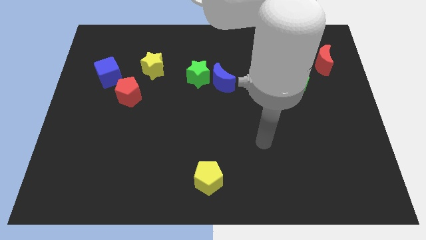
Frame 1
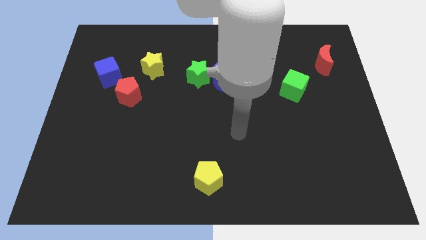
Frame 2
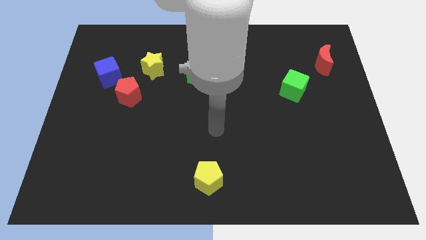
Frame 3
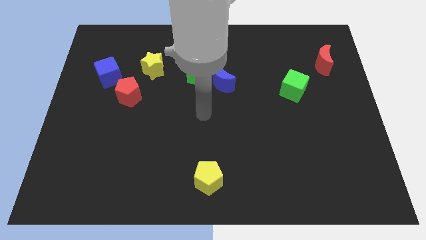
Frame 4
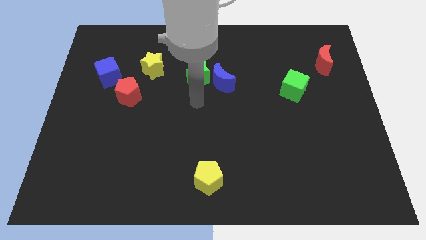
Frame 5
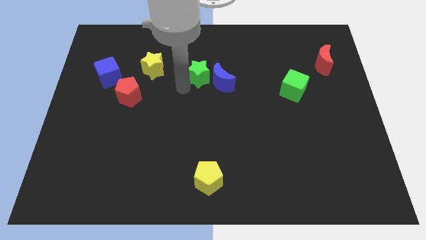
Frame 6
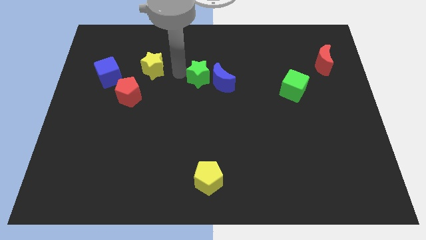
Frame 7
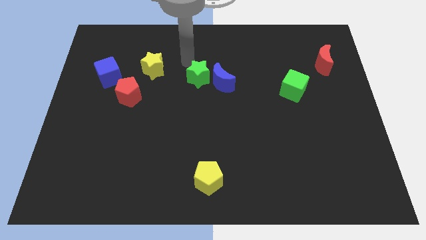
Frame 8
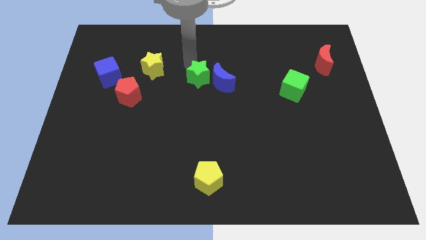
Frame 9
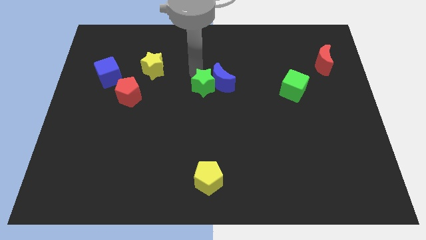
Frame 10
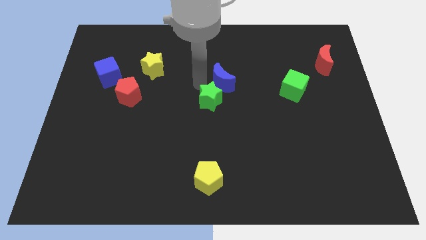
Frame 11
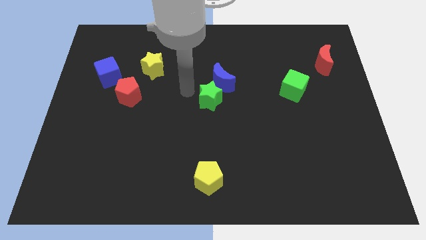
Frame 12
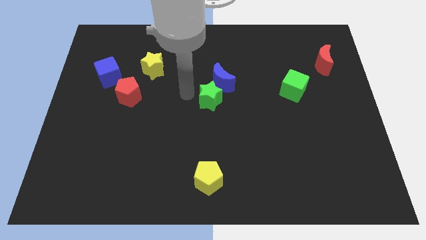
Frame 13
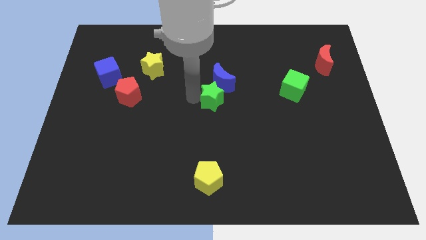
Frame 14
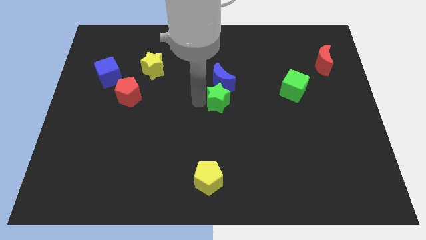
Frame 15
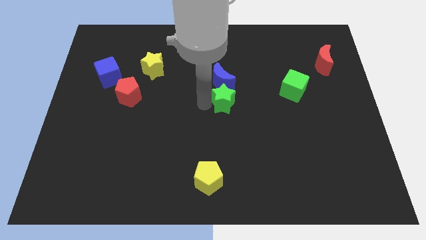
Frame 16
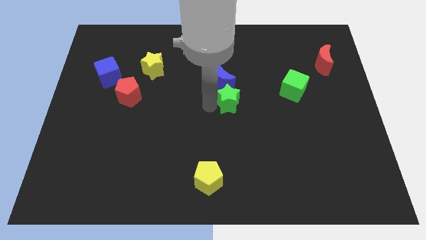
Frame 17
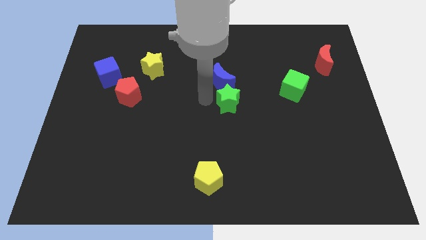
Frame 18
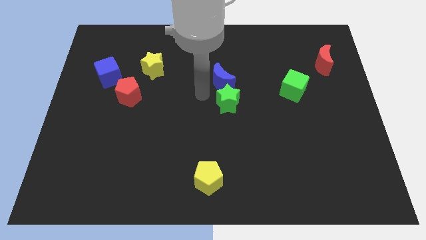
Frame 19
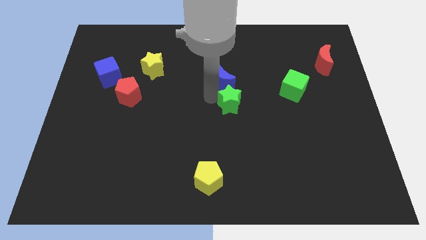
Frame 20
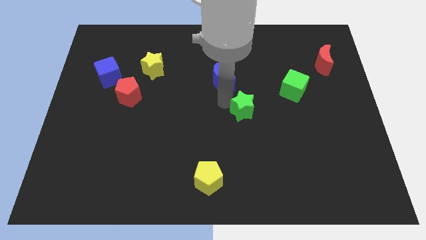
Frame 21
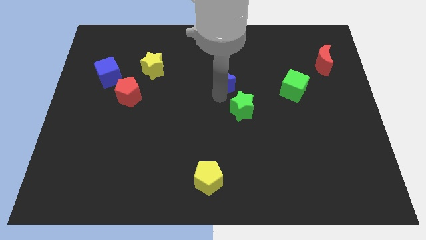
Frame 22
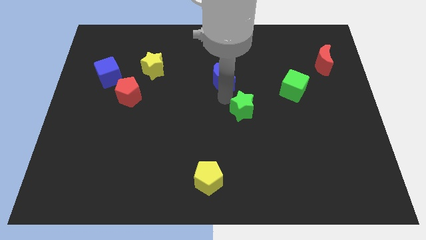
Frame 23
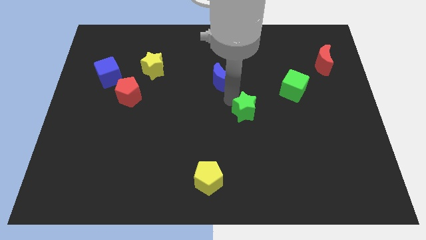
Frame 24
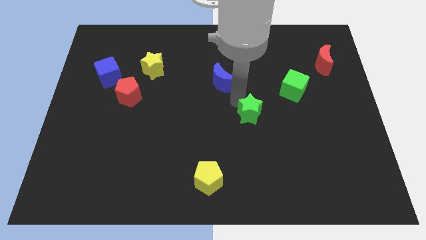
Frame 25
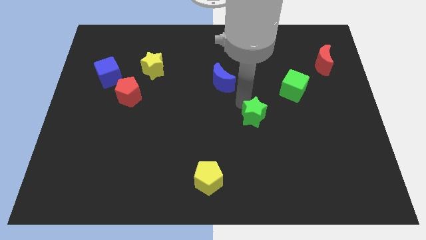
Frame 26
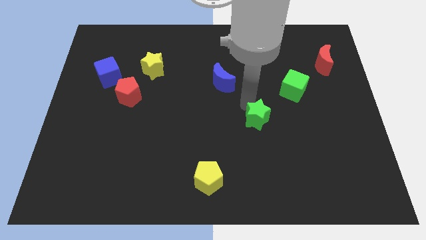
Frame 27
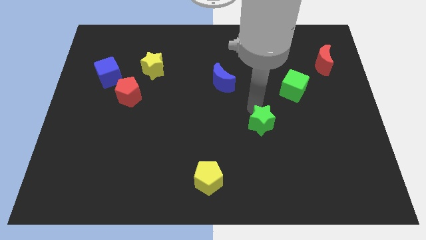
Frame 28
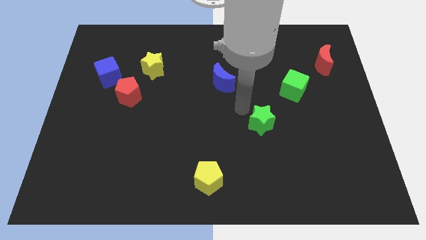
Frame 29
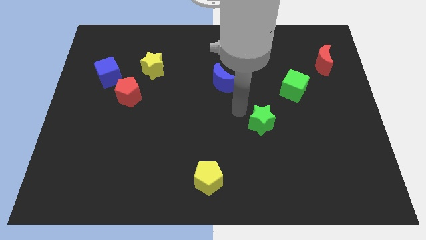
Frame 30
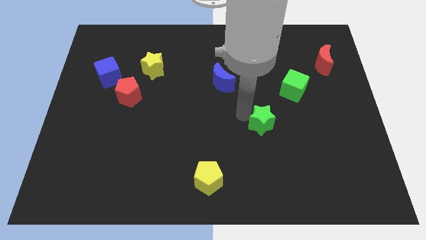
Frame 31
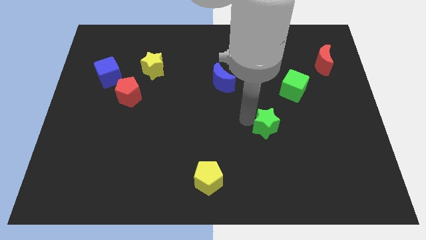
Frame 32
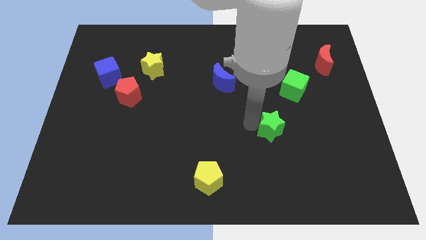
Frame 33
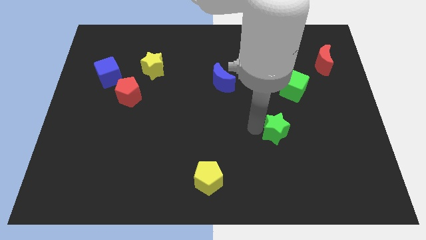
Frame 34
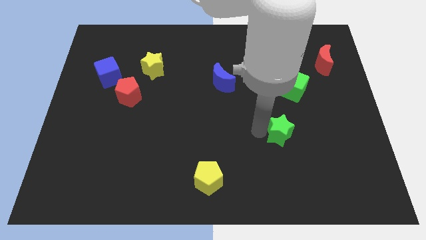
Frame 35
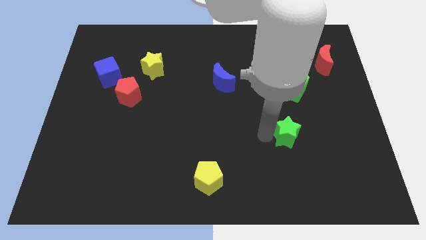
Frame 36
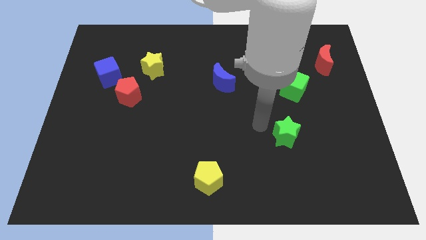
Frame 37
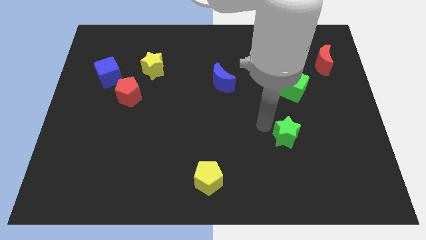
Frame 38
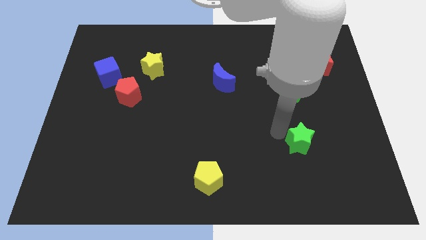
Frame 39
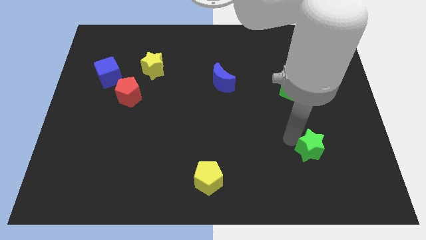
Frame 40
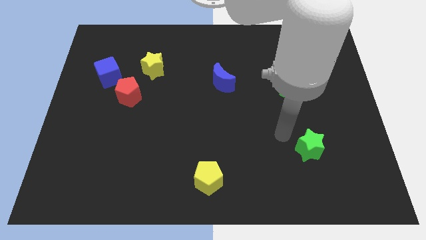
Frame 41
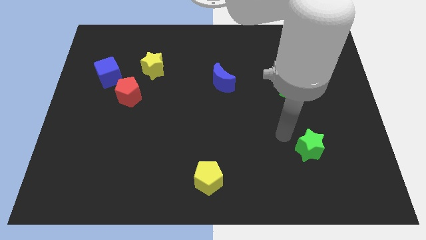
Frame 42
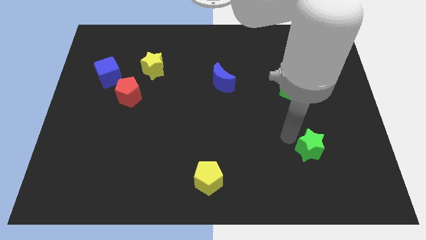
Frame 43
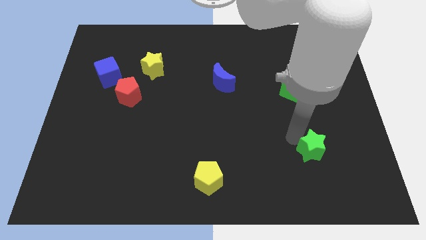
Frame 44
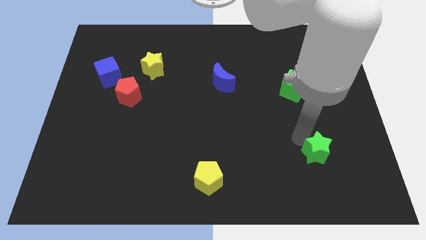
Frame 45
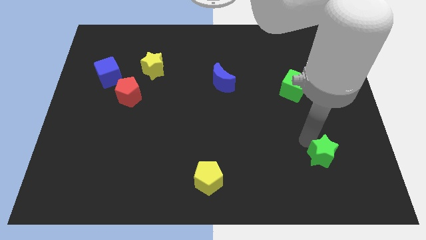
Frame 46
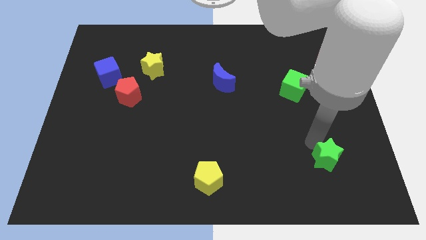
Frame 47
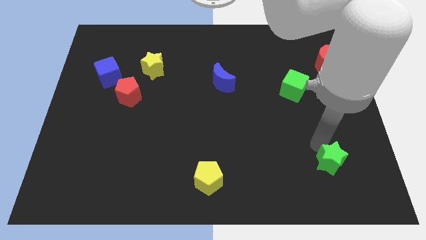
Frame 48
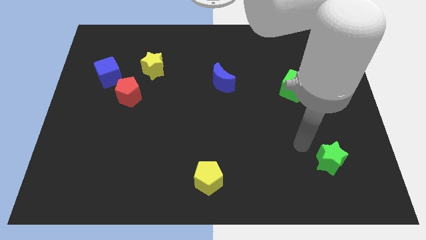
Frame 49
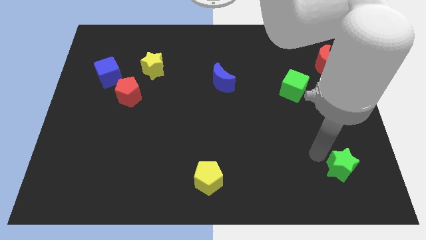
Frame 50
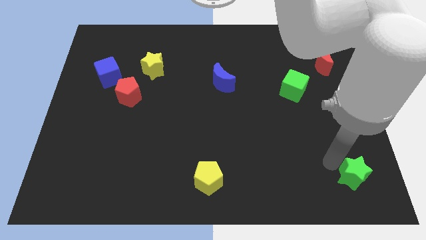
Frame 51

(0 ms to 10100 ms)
slide the green star to the lower right corner

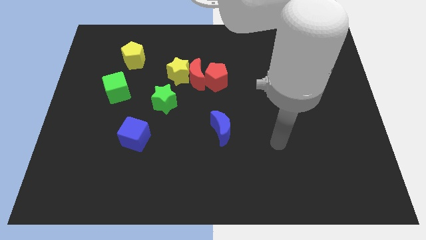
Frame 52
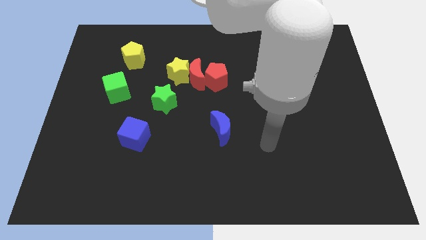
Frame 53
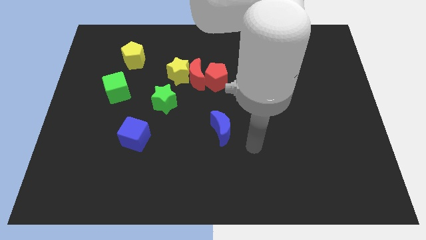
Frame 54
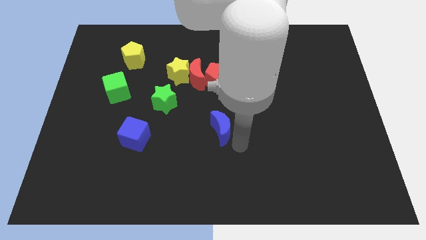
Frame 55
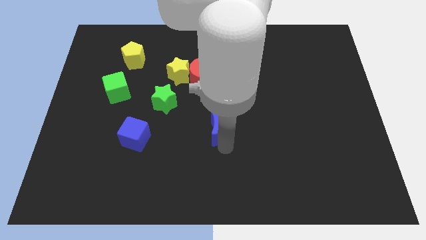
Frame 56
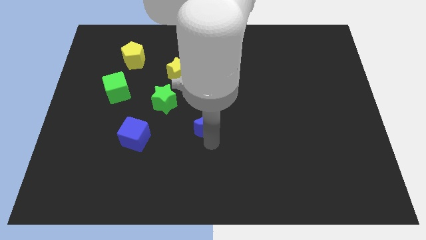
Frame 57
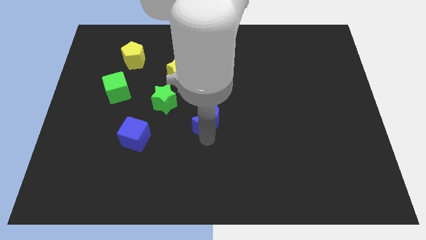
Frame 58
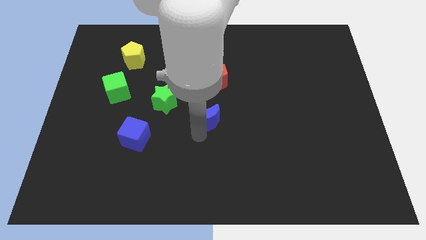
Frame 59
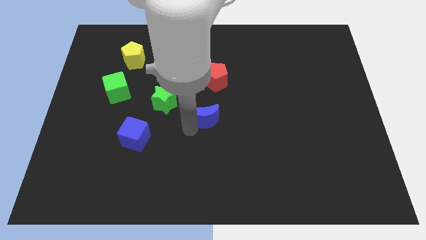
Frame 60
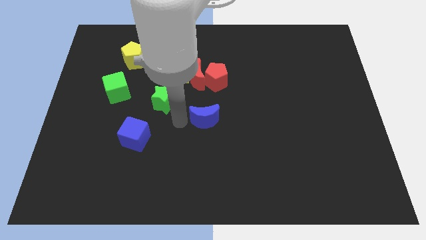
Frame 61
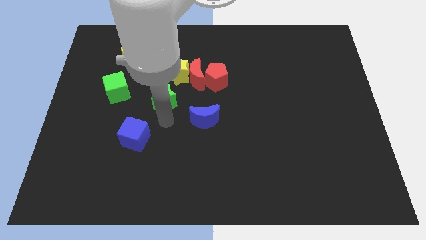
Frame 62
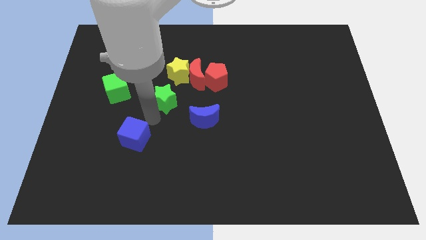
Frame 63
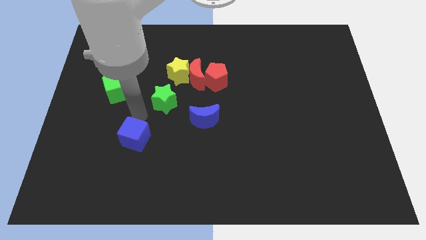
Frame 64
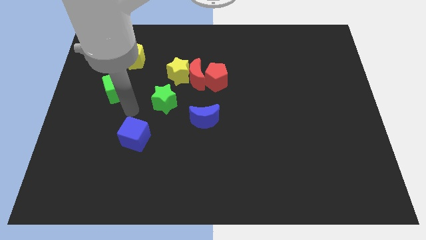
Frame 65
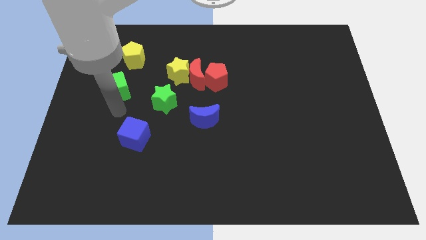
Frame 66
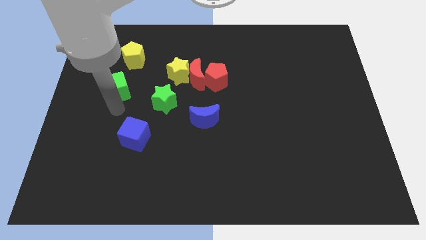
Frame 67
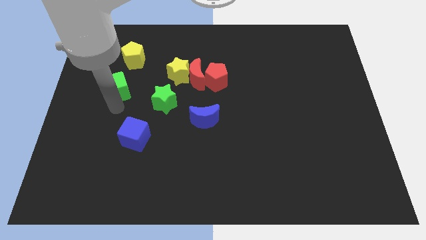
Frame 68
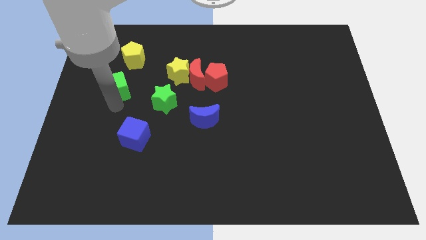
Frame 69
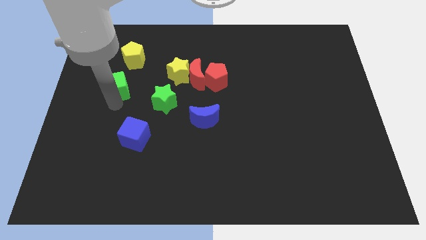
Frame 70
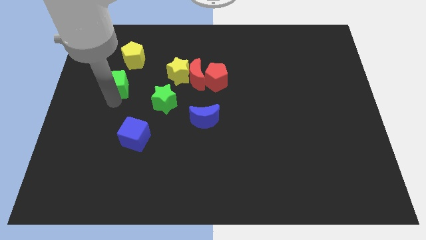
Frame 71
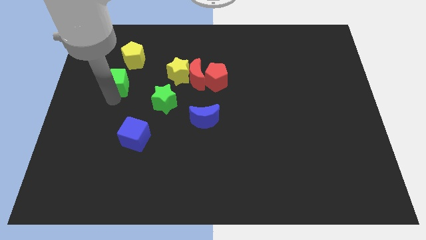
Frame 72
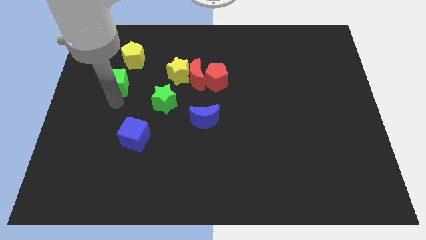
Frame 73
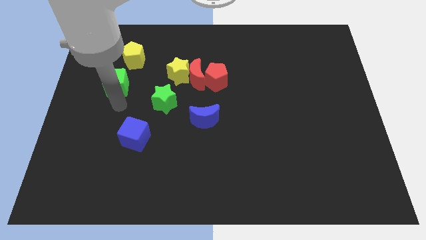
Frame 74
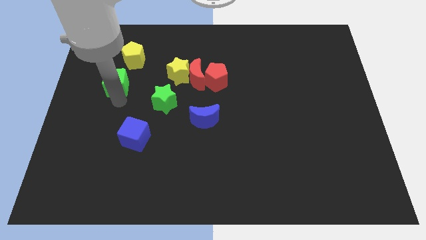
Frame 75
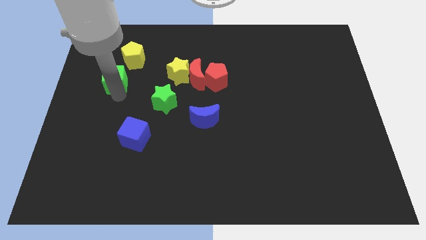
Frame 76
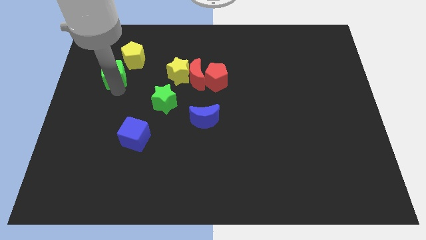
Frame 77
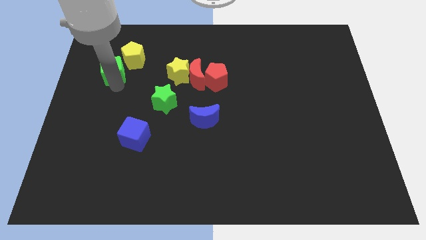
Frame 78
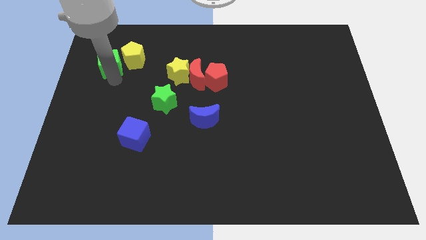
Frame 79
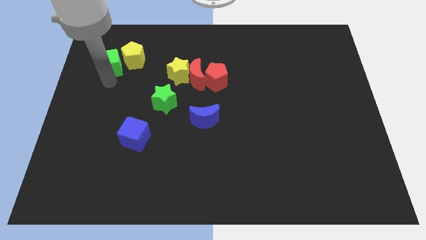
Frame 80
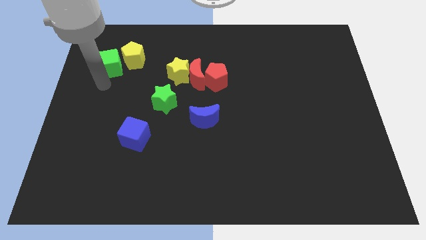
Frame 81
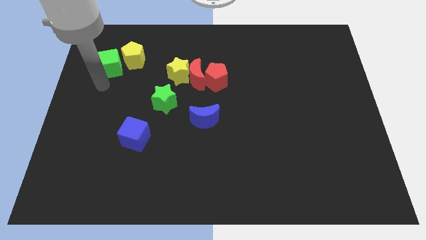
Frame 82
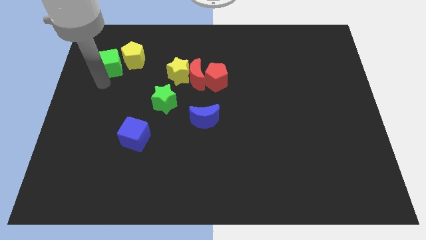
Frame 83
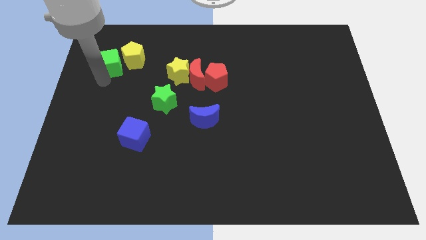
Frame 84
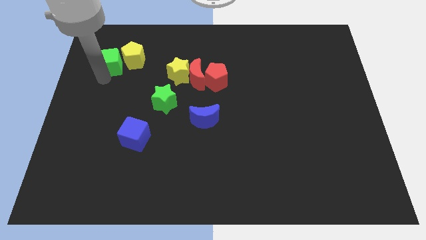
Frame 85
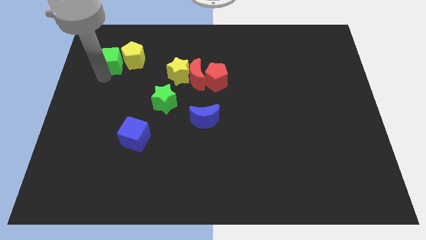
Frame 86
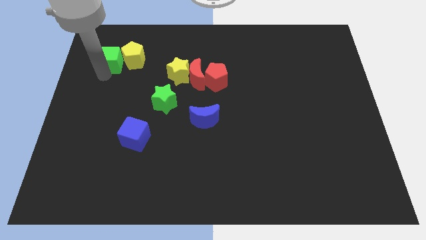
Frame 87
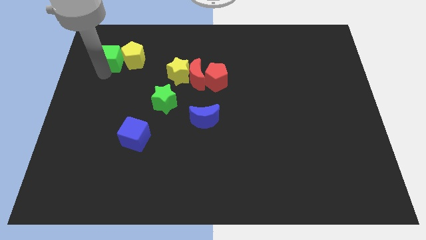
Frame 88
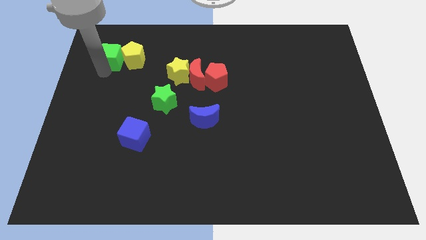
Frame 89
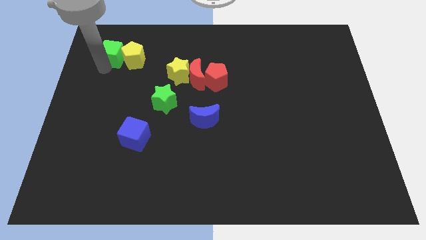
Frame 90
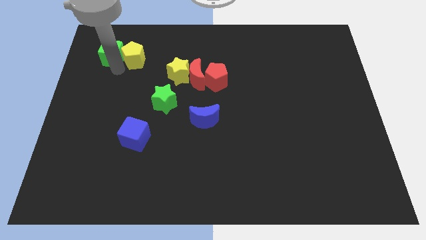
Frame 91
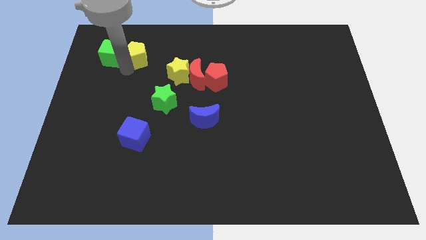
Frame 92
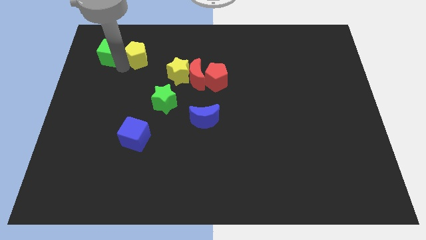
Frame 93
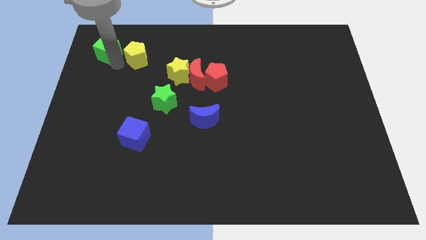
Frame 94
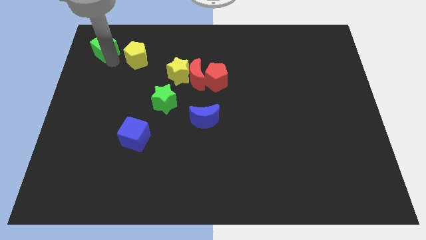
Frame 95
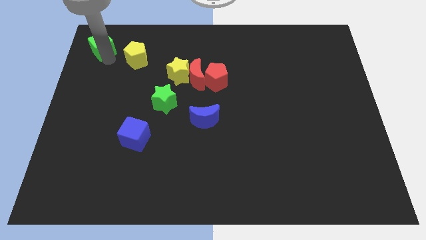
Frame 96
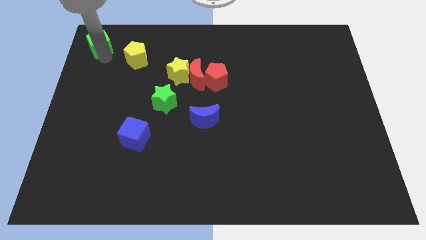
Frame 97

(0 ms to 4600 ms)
move the green cube to the top left corner
